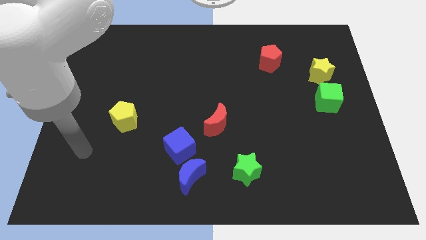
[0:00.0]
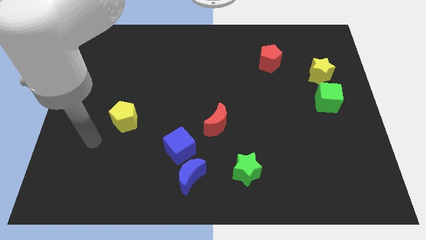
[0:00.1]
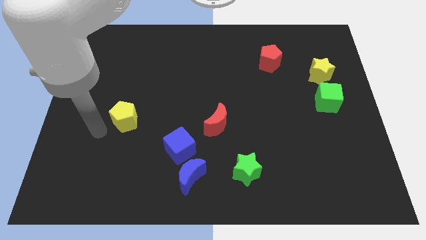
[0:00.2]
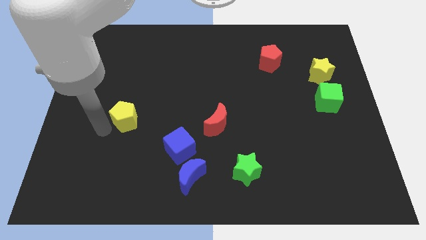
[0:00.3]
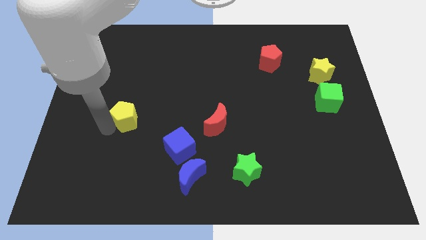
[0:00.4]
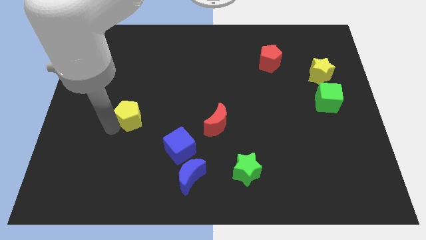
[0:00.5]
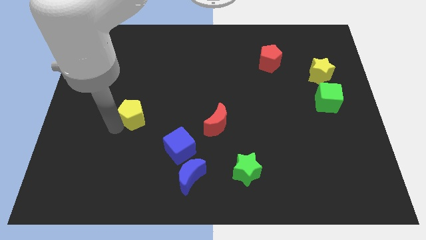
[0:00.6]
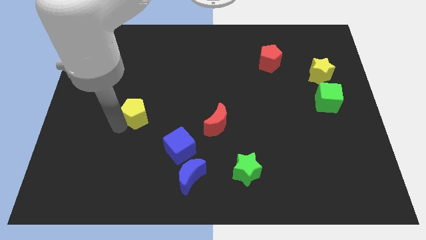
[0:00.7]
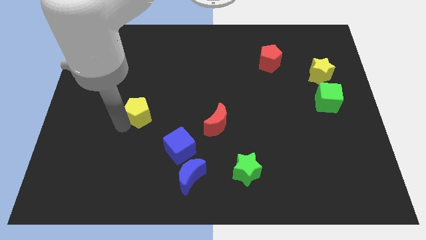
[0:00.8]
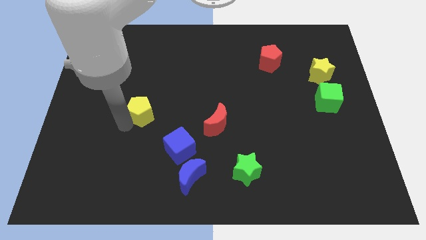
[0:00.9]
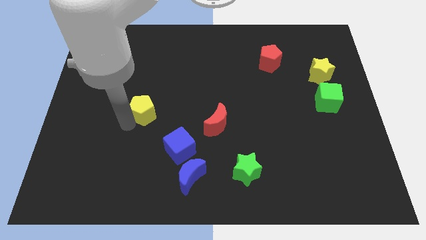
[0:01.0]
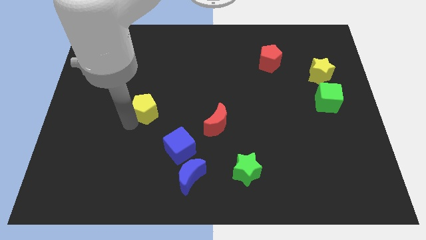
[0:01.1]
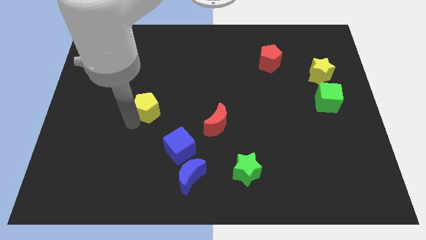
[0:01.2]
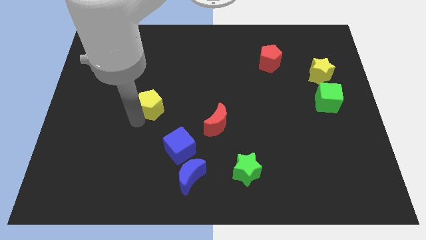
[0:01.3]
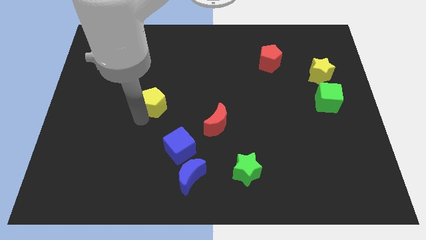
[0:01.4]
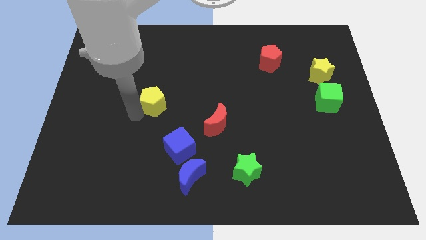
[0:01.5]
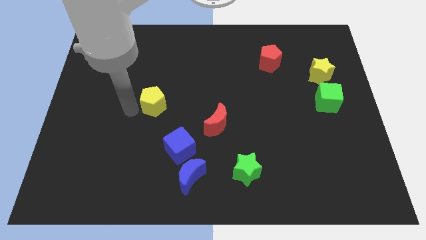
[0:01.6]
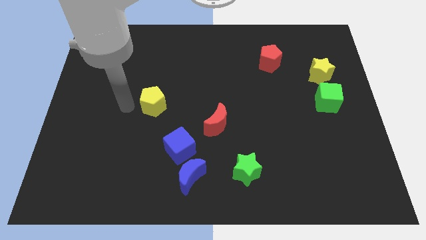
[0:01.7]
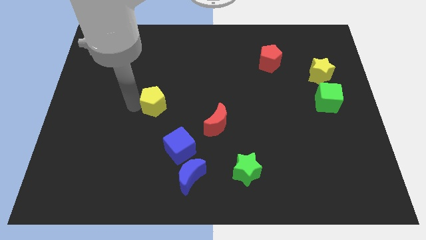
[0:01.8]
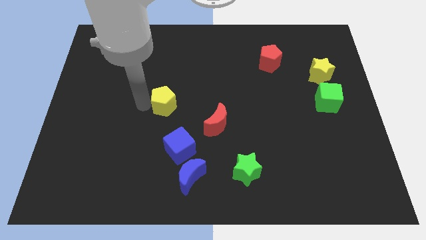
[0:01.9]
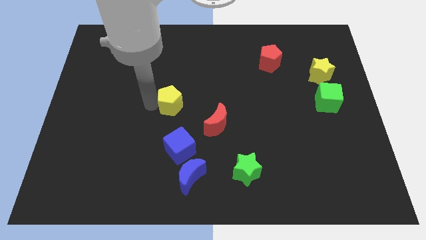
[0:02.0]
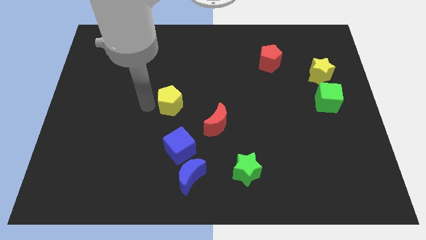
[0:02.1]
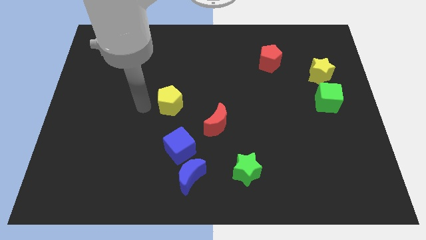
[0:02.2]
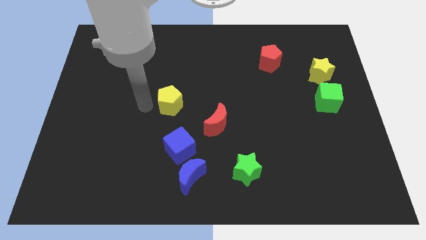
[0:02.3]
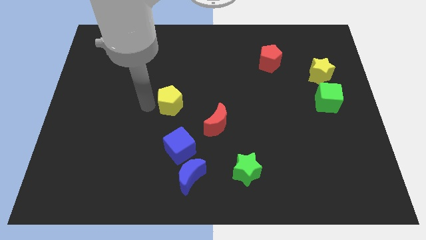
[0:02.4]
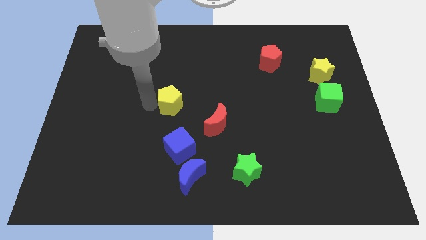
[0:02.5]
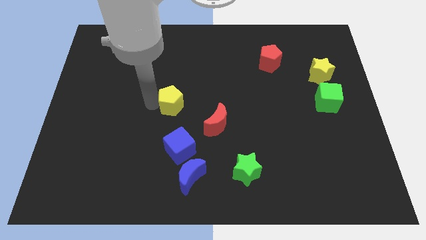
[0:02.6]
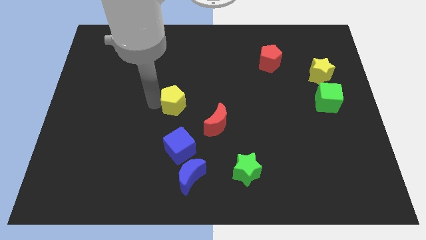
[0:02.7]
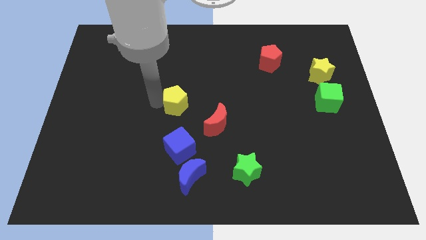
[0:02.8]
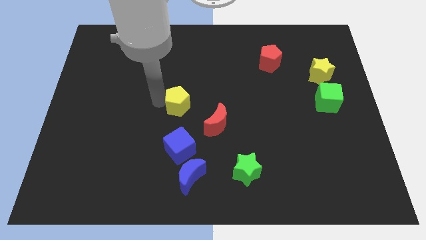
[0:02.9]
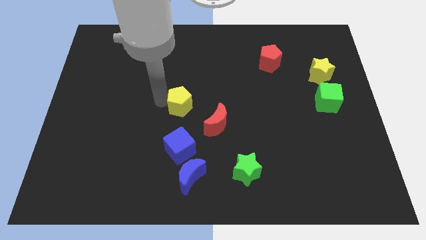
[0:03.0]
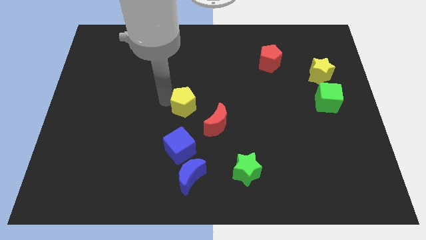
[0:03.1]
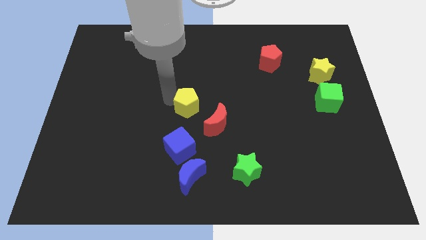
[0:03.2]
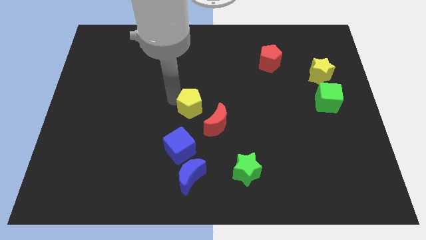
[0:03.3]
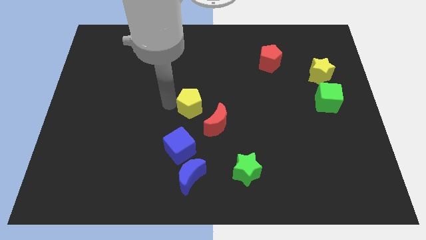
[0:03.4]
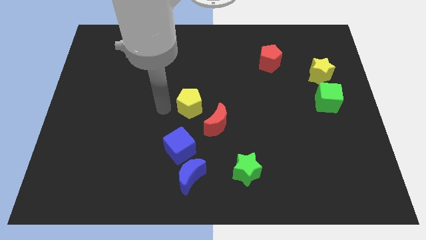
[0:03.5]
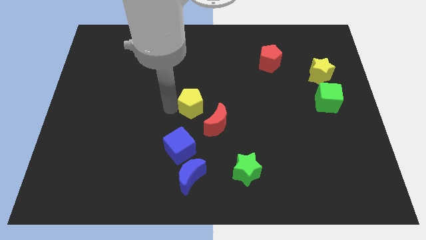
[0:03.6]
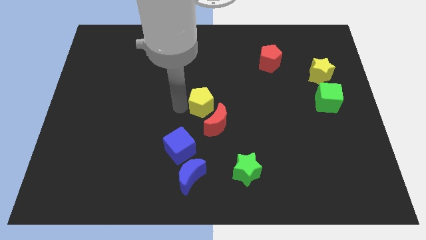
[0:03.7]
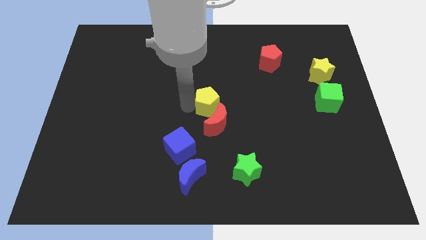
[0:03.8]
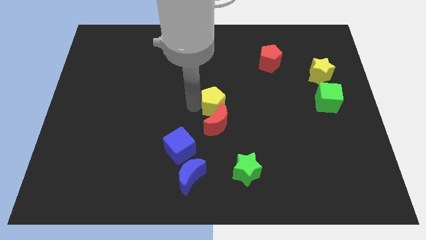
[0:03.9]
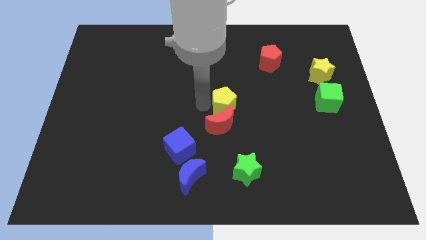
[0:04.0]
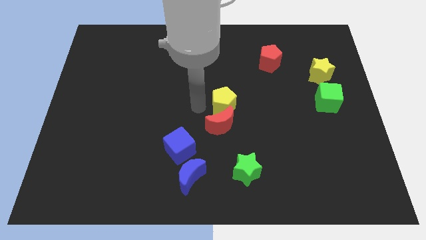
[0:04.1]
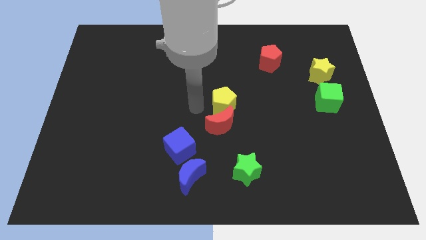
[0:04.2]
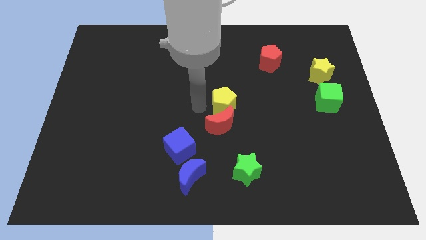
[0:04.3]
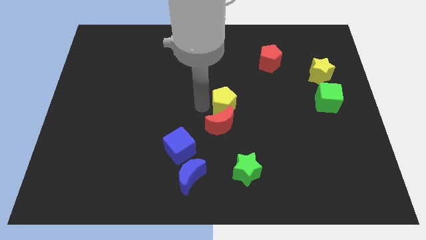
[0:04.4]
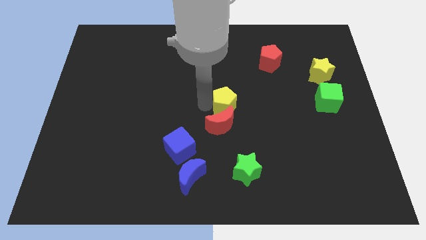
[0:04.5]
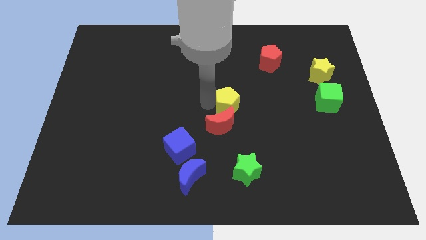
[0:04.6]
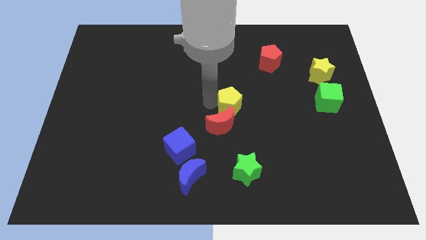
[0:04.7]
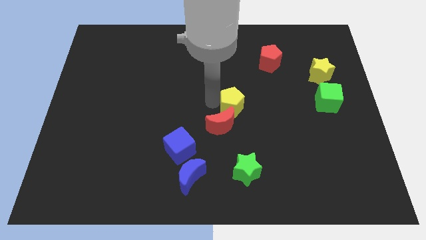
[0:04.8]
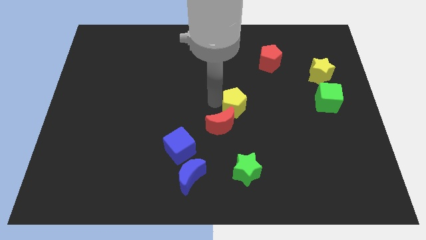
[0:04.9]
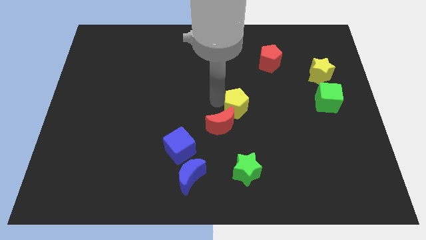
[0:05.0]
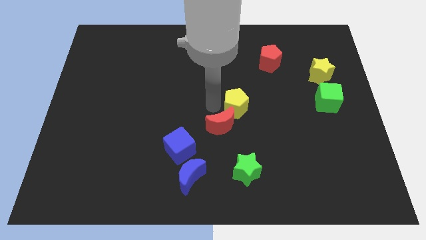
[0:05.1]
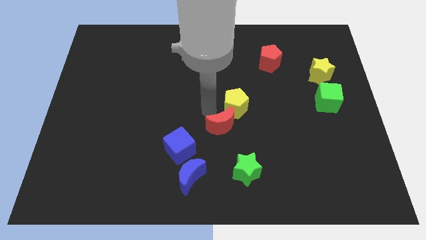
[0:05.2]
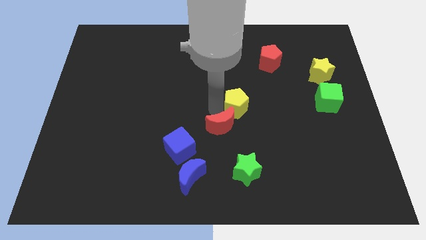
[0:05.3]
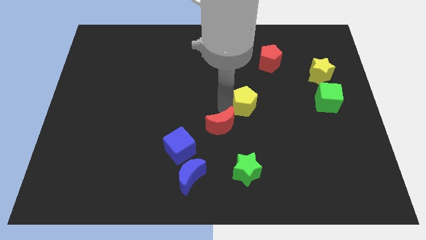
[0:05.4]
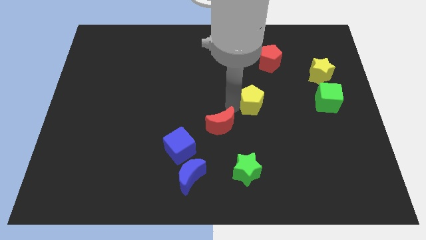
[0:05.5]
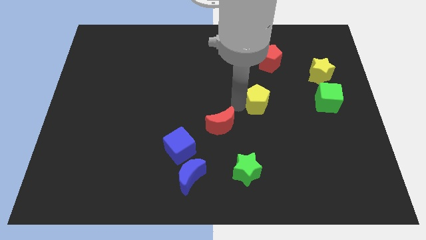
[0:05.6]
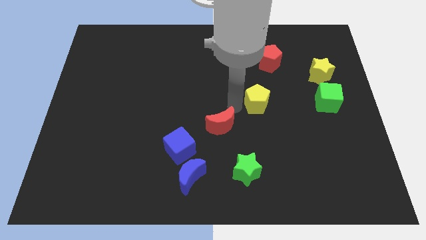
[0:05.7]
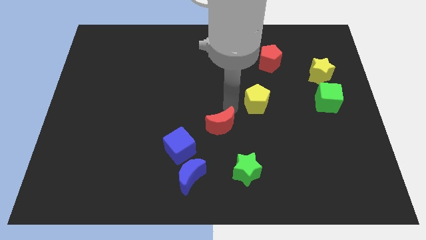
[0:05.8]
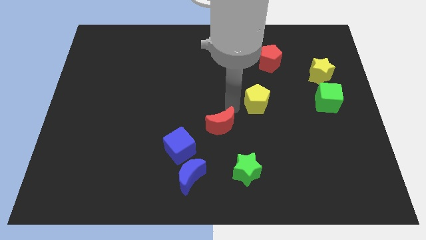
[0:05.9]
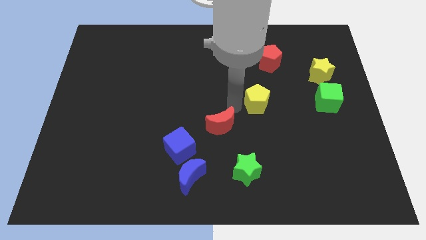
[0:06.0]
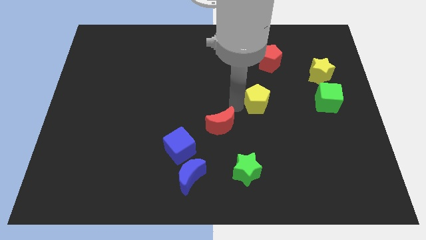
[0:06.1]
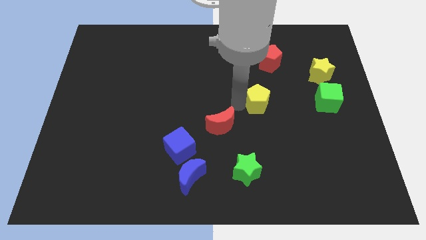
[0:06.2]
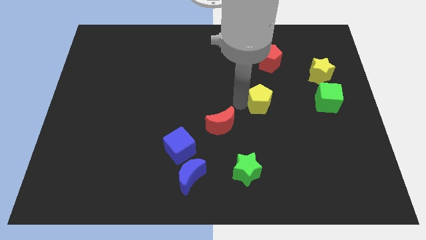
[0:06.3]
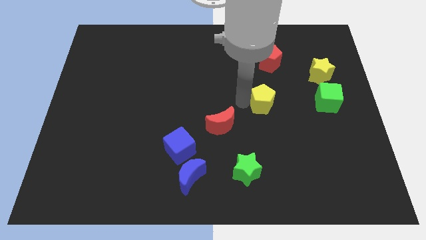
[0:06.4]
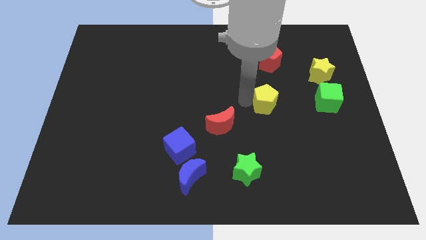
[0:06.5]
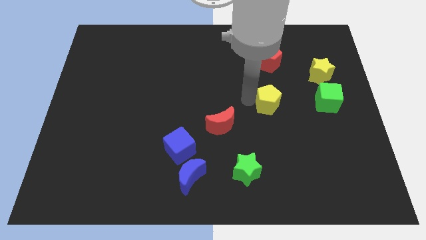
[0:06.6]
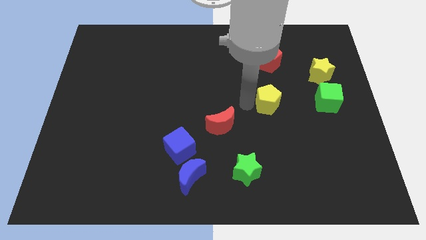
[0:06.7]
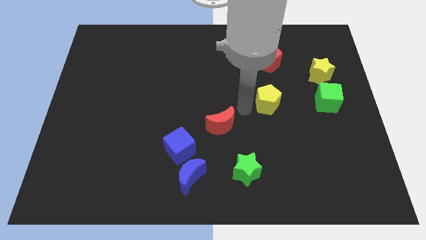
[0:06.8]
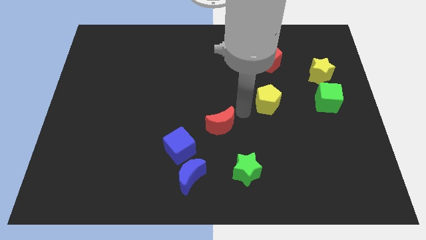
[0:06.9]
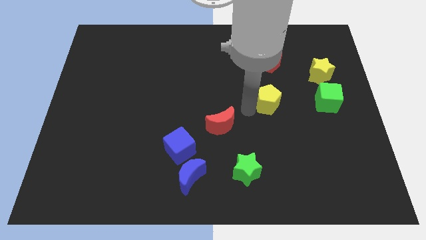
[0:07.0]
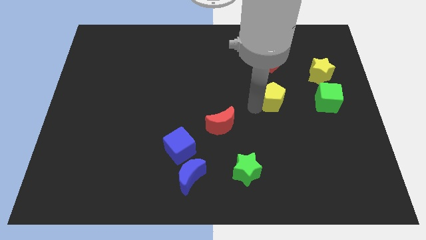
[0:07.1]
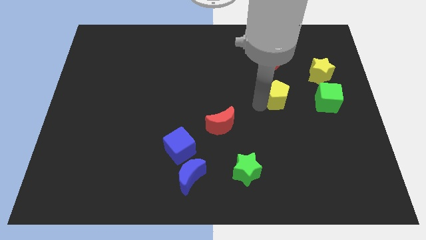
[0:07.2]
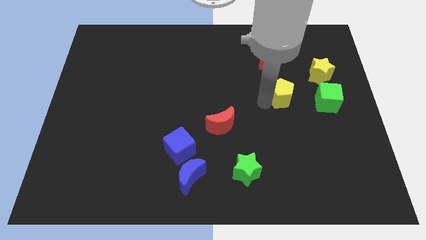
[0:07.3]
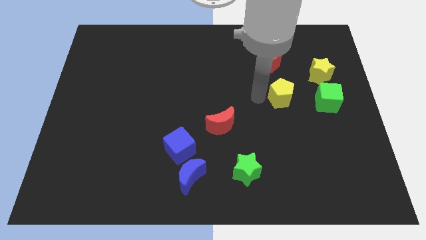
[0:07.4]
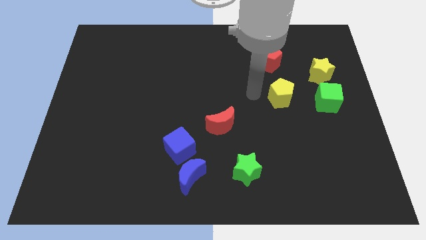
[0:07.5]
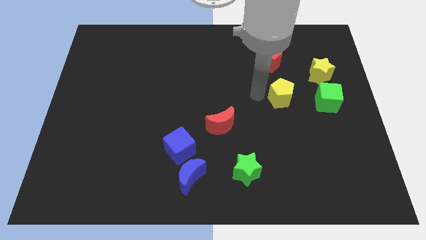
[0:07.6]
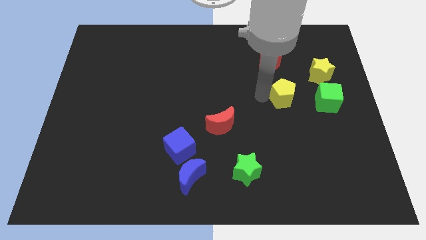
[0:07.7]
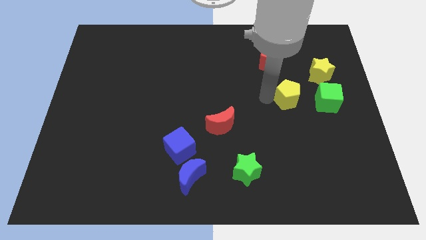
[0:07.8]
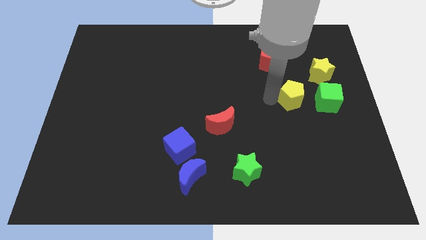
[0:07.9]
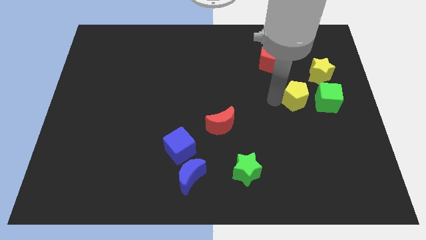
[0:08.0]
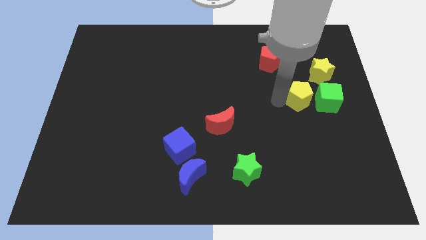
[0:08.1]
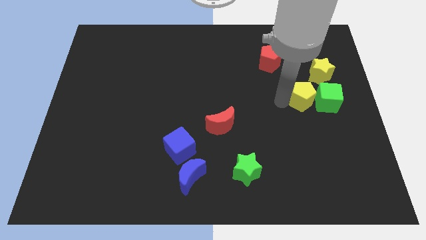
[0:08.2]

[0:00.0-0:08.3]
slide the yellow pentagon towards the green cube
